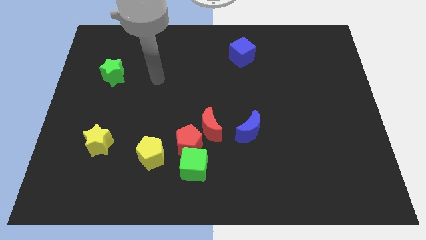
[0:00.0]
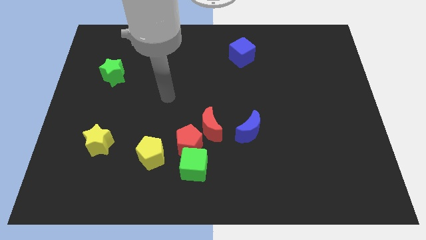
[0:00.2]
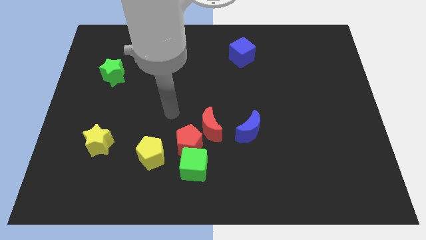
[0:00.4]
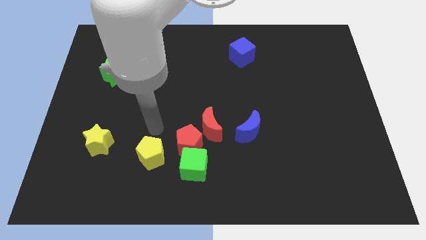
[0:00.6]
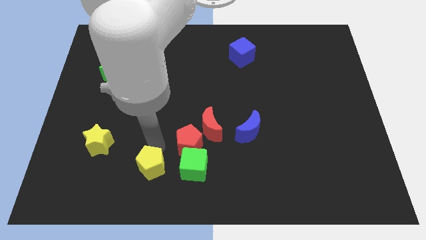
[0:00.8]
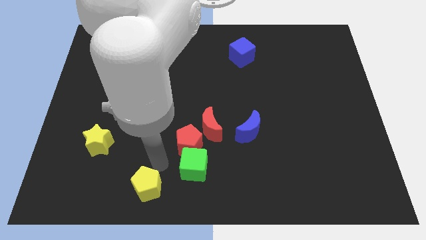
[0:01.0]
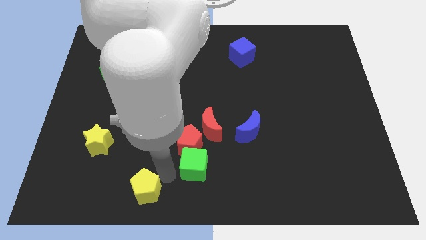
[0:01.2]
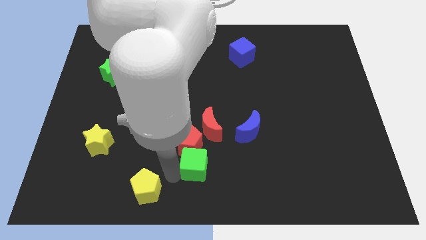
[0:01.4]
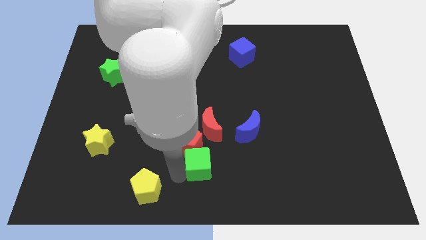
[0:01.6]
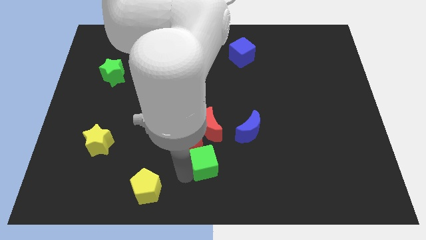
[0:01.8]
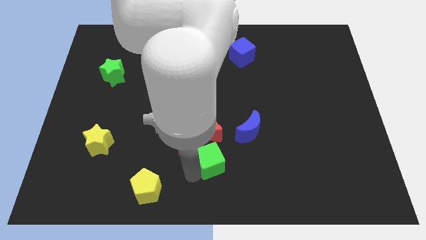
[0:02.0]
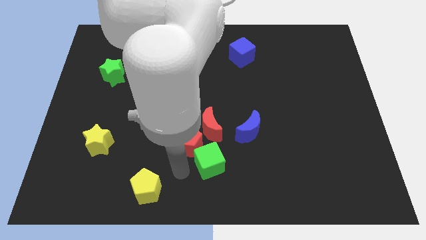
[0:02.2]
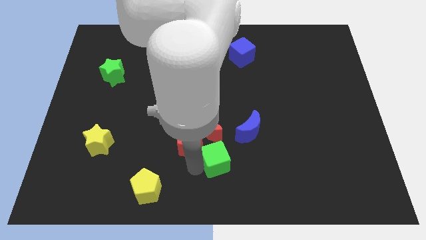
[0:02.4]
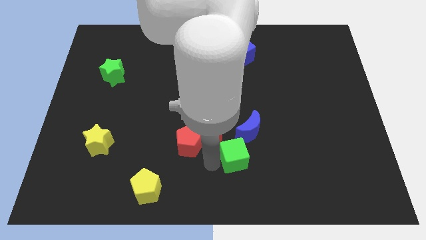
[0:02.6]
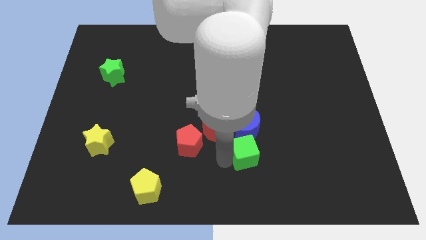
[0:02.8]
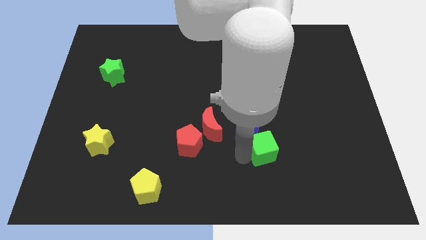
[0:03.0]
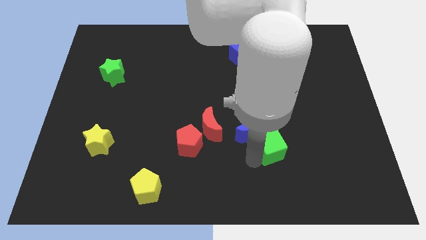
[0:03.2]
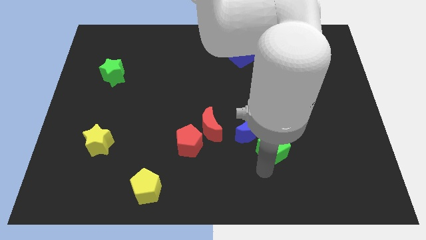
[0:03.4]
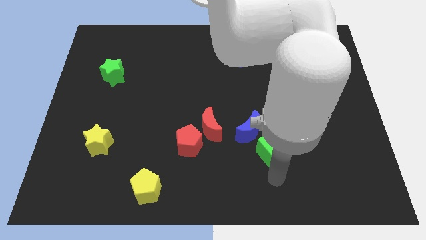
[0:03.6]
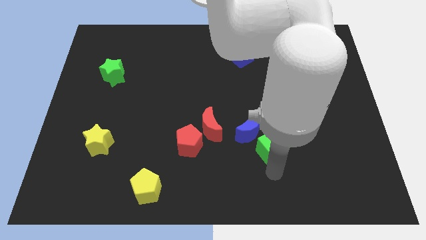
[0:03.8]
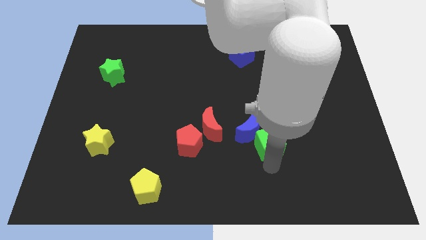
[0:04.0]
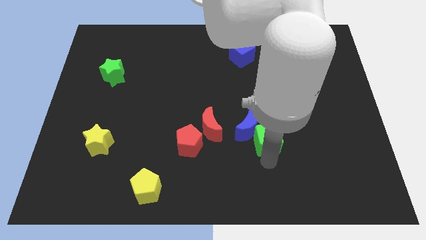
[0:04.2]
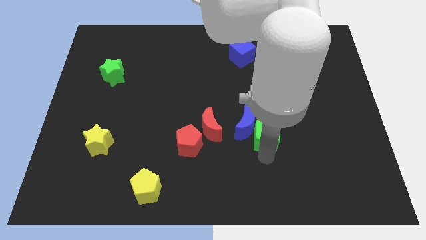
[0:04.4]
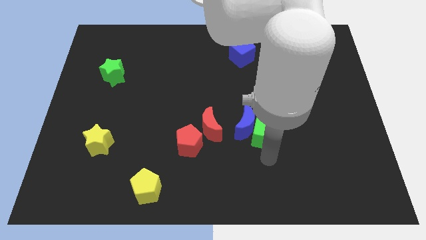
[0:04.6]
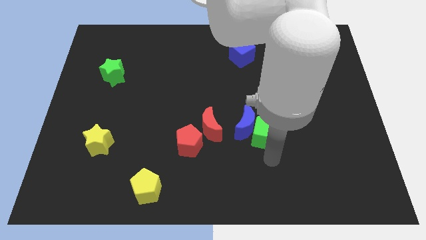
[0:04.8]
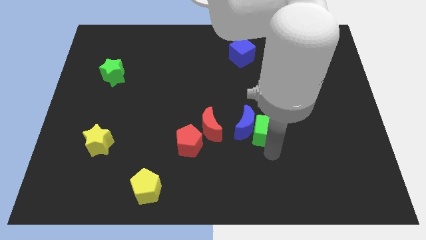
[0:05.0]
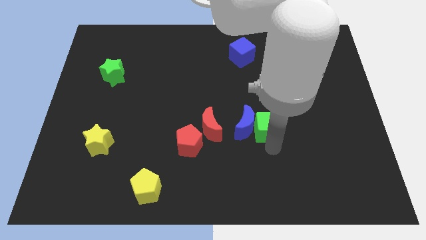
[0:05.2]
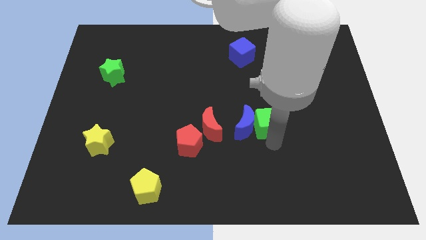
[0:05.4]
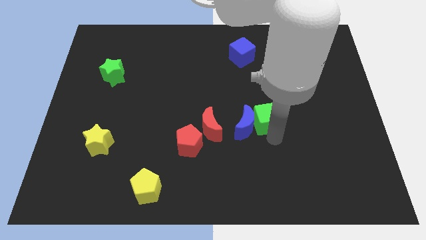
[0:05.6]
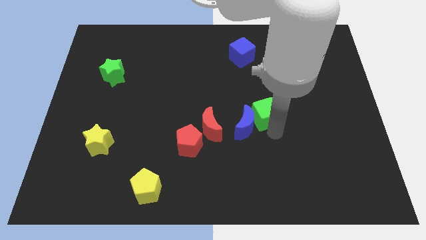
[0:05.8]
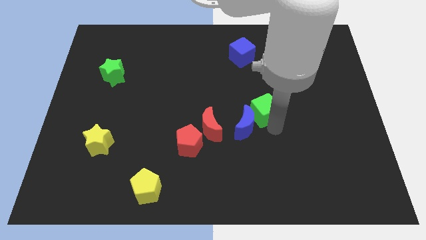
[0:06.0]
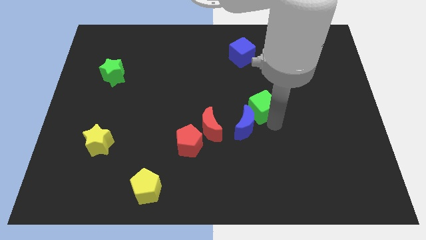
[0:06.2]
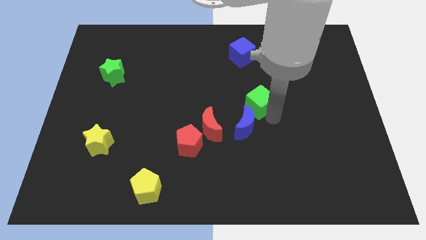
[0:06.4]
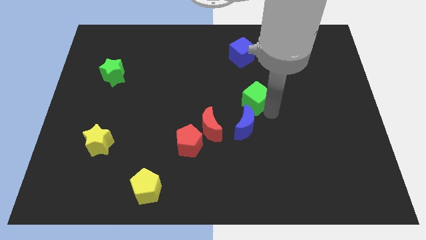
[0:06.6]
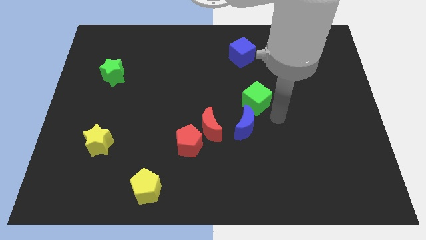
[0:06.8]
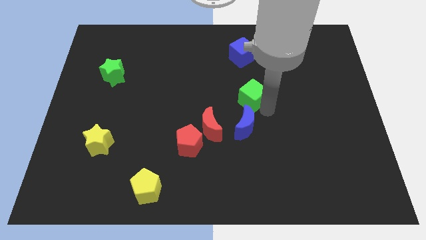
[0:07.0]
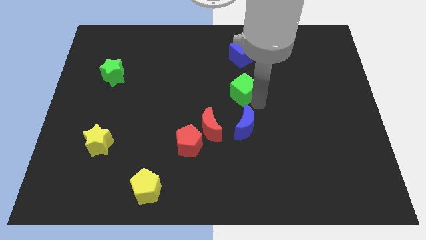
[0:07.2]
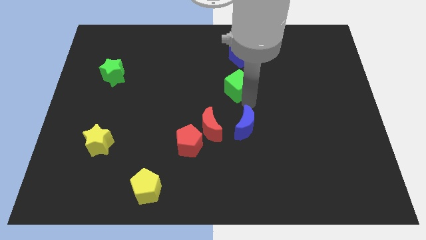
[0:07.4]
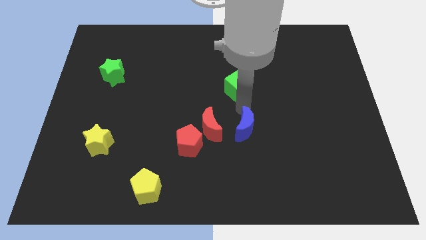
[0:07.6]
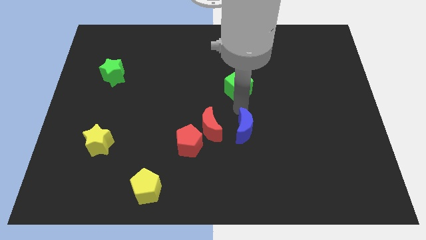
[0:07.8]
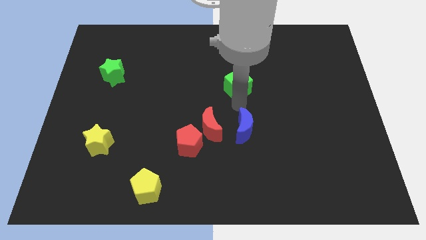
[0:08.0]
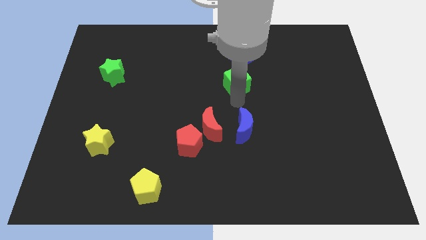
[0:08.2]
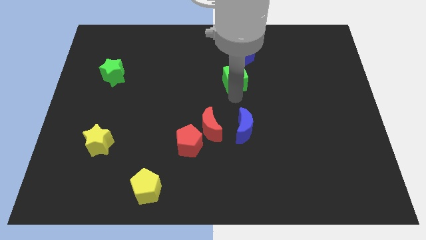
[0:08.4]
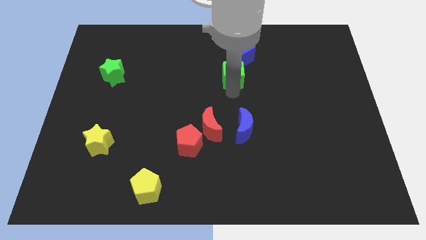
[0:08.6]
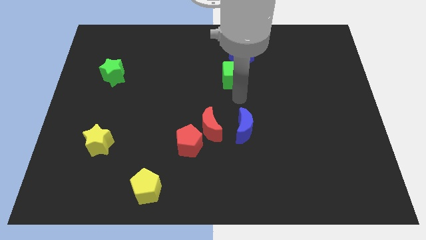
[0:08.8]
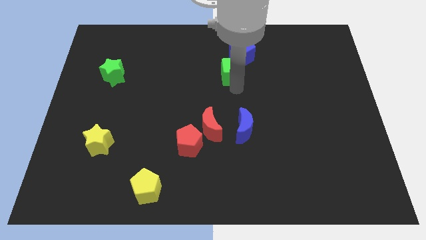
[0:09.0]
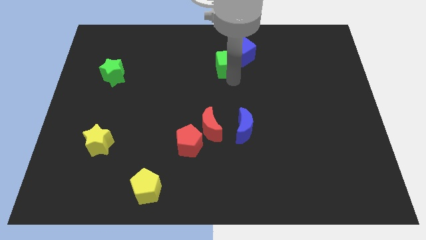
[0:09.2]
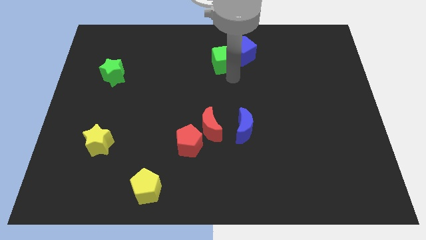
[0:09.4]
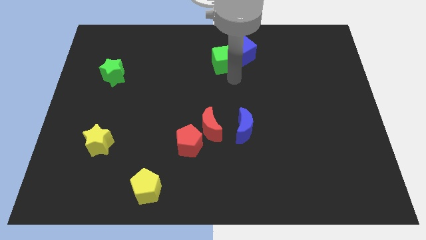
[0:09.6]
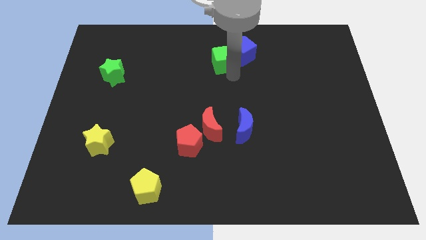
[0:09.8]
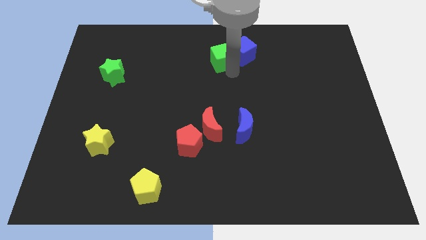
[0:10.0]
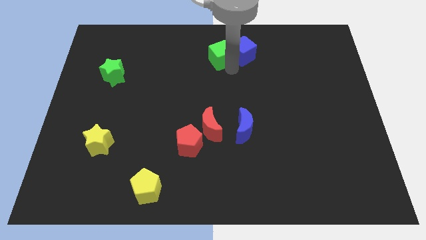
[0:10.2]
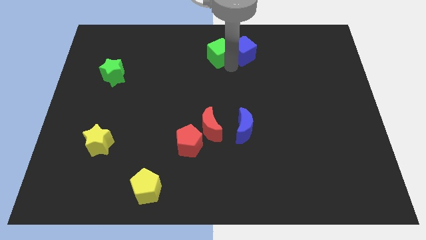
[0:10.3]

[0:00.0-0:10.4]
slide the green cube to the towards your base

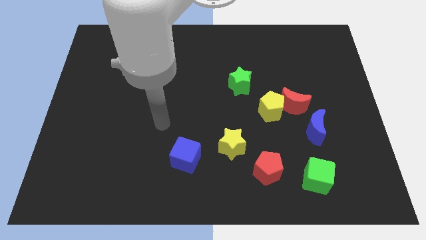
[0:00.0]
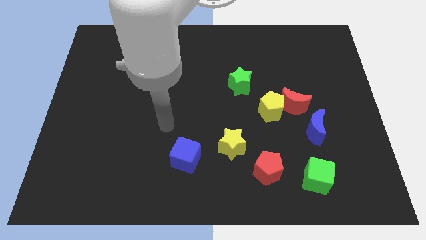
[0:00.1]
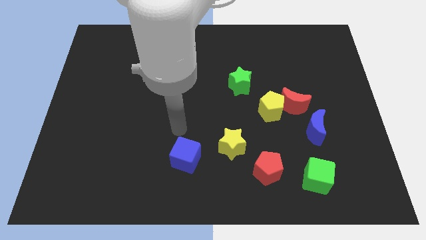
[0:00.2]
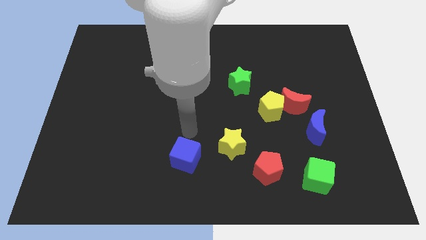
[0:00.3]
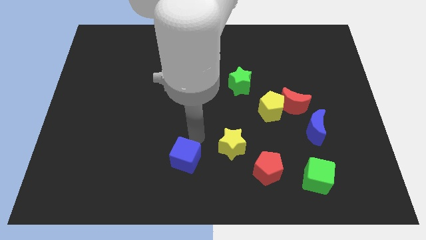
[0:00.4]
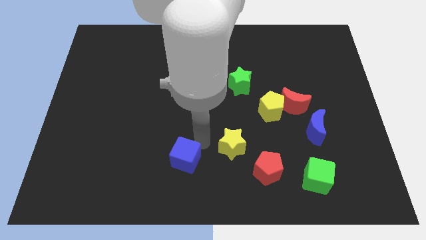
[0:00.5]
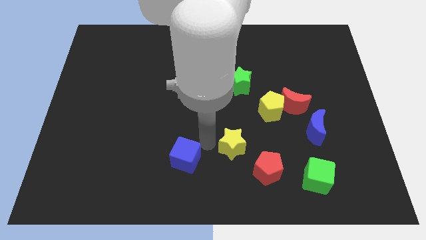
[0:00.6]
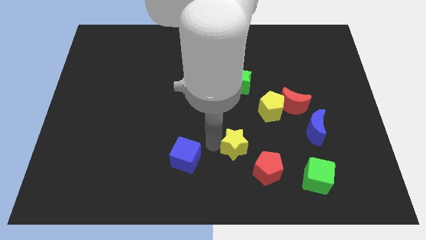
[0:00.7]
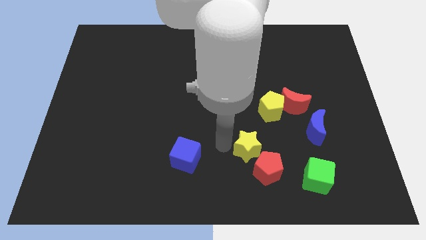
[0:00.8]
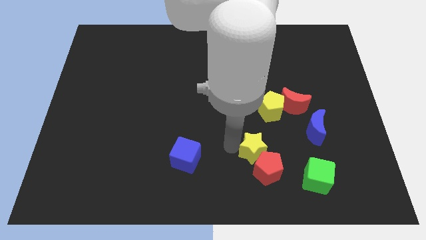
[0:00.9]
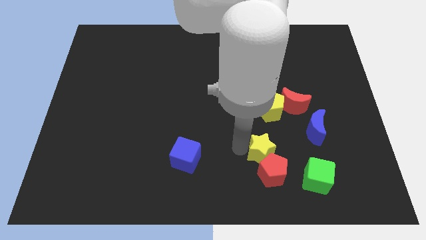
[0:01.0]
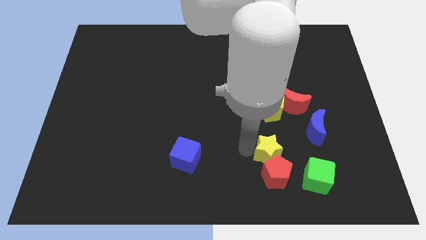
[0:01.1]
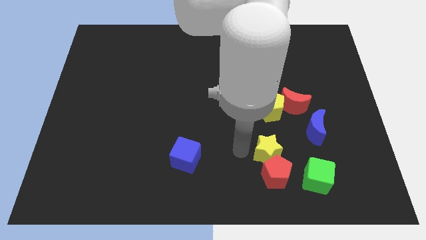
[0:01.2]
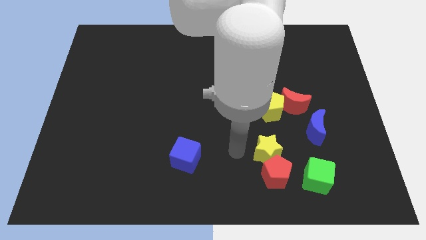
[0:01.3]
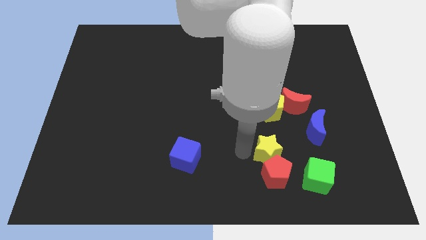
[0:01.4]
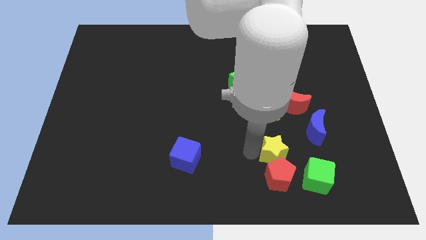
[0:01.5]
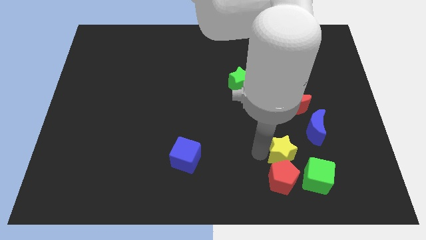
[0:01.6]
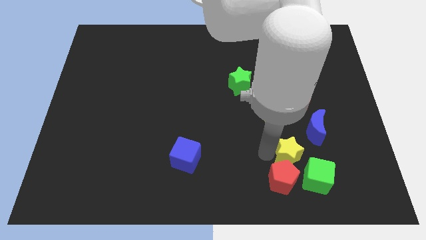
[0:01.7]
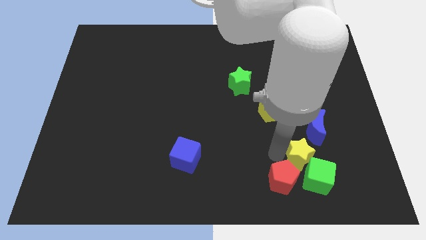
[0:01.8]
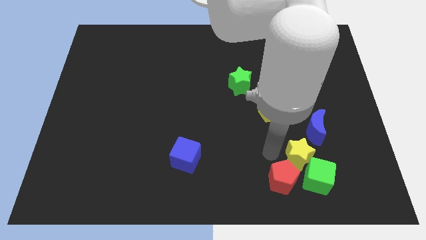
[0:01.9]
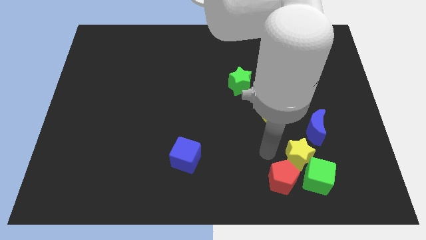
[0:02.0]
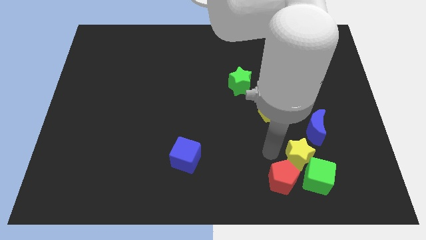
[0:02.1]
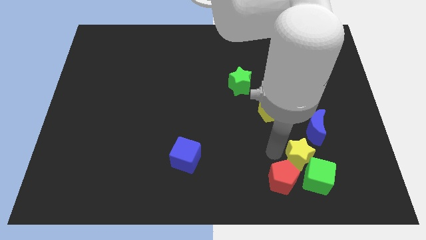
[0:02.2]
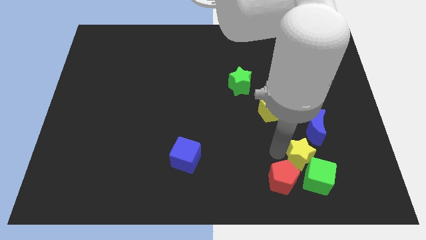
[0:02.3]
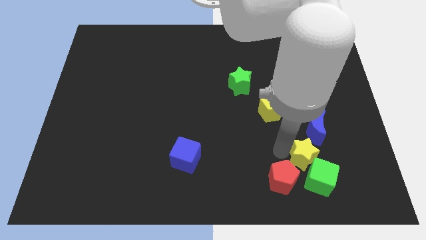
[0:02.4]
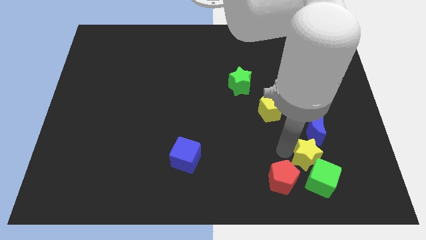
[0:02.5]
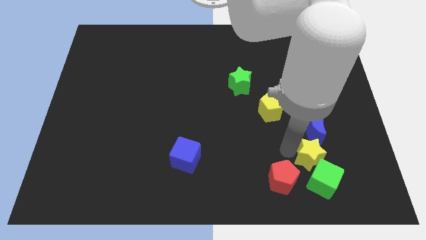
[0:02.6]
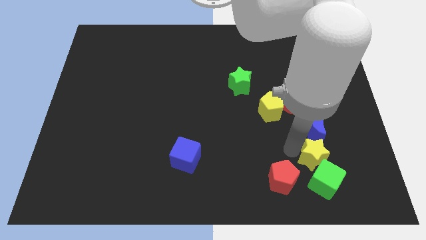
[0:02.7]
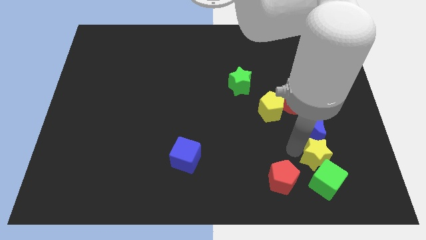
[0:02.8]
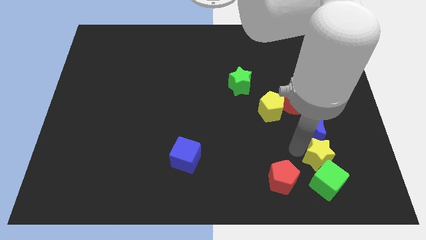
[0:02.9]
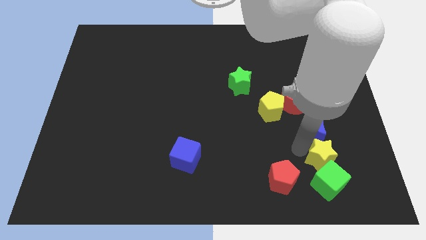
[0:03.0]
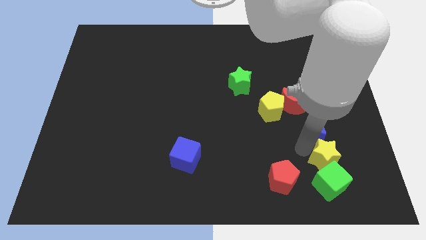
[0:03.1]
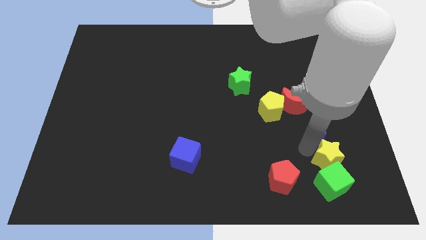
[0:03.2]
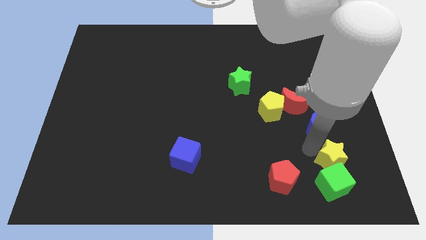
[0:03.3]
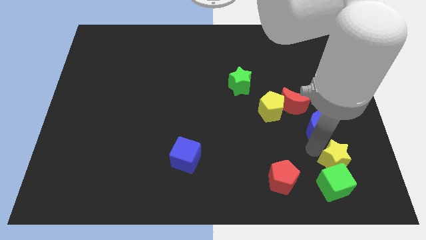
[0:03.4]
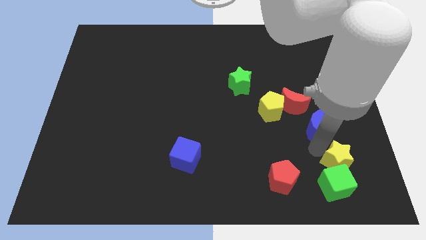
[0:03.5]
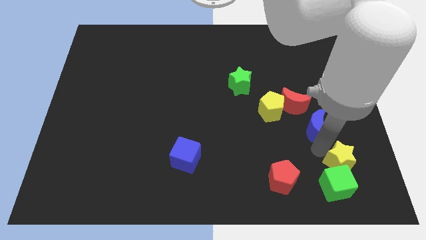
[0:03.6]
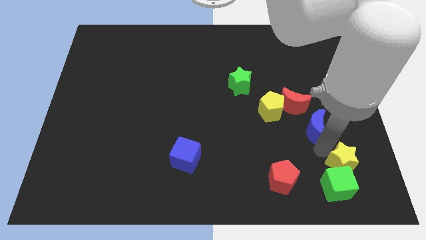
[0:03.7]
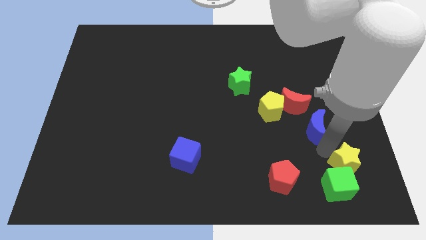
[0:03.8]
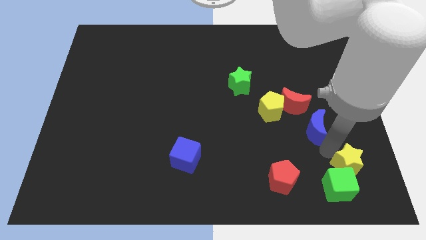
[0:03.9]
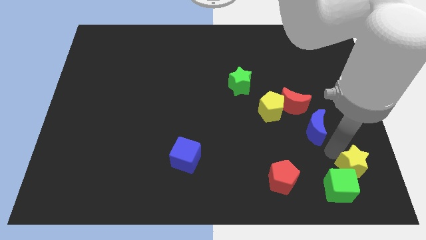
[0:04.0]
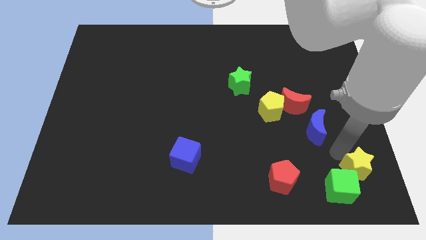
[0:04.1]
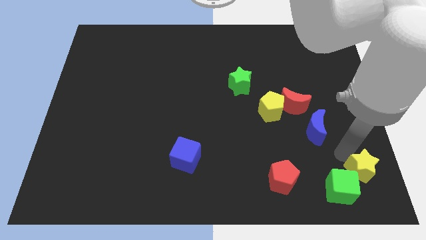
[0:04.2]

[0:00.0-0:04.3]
move the yellow star to the bottom right of the board
